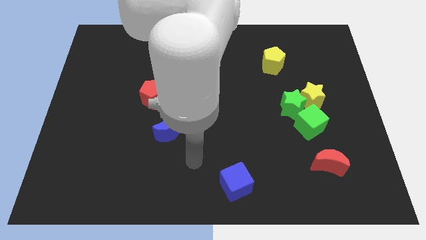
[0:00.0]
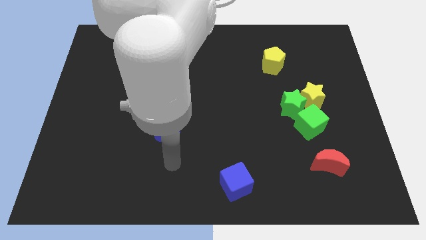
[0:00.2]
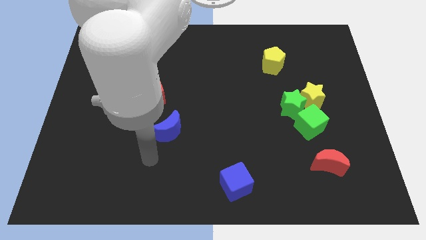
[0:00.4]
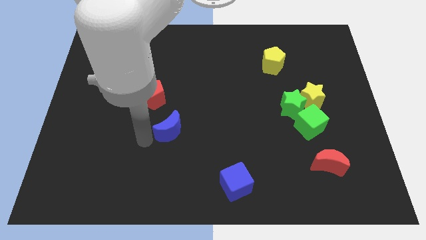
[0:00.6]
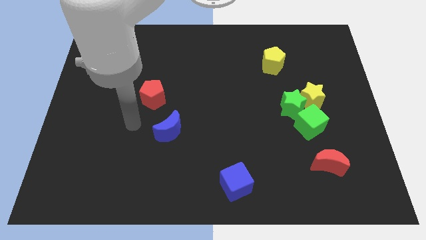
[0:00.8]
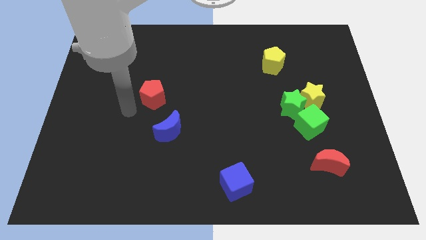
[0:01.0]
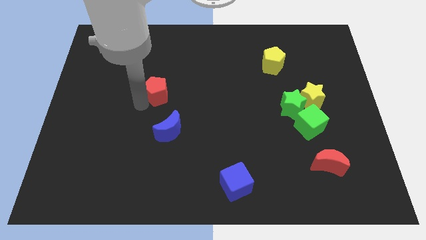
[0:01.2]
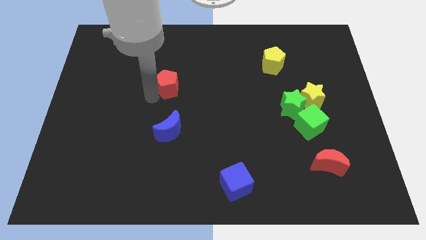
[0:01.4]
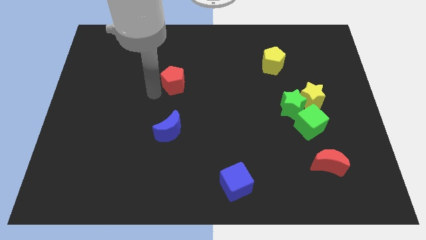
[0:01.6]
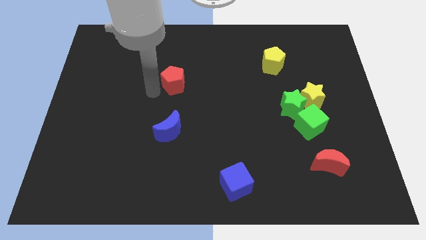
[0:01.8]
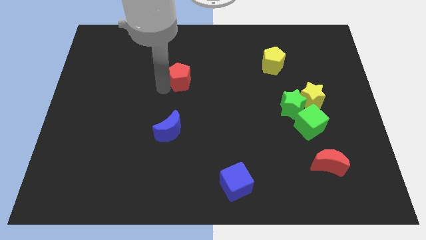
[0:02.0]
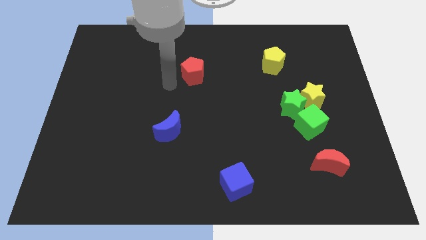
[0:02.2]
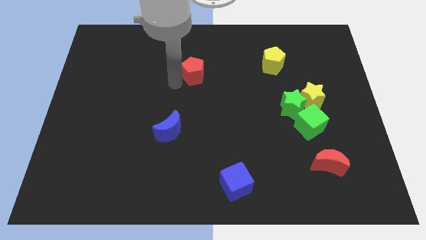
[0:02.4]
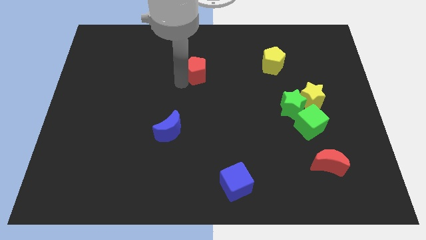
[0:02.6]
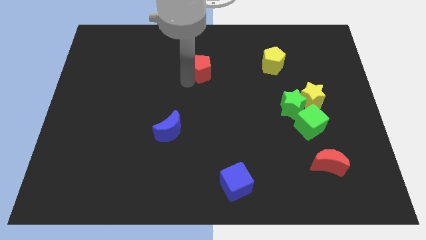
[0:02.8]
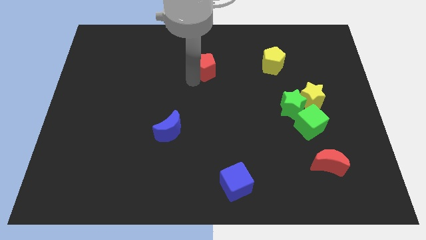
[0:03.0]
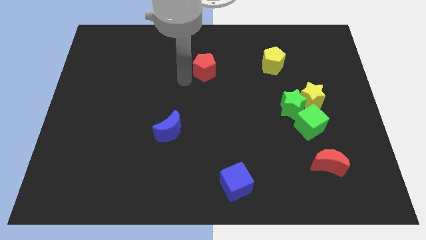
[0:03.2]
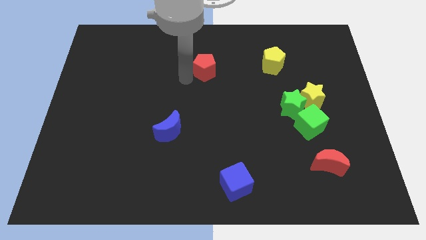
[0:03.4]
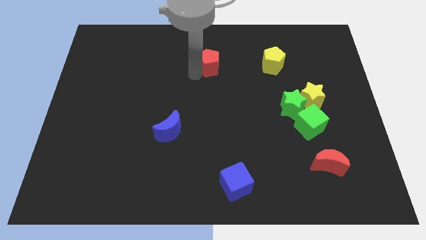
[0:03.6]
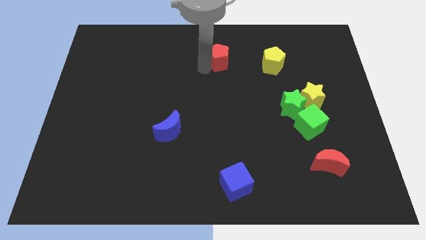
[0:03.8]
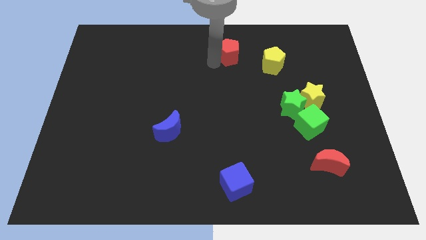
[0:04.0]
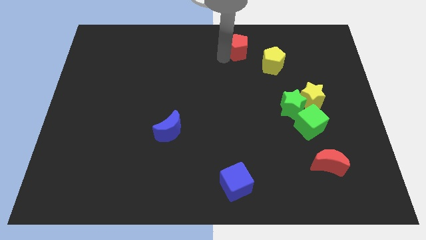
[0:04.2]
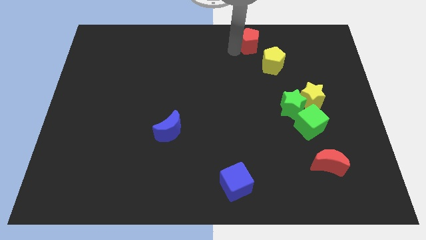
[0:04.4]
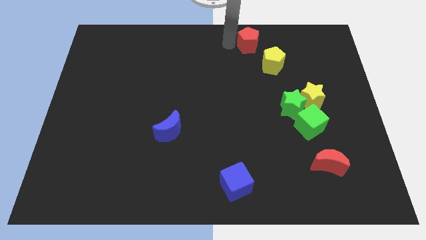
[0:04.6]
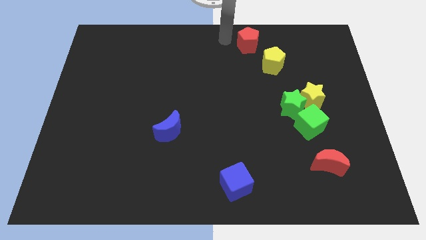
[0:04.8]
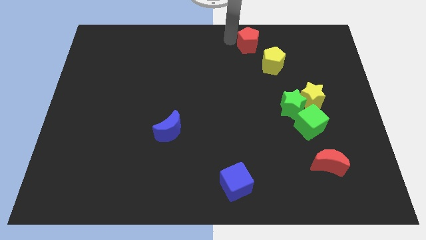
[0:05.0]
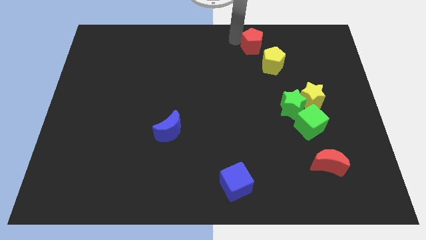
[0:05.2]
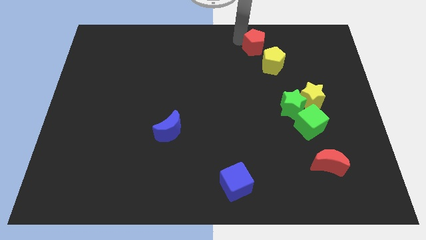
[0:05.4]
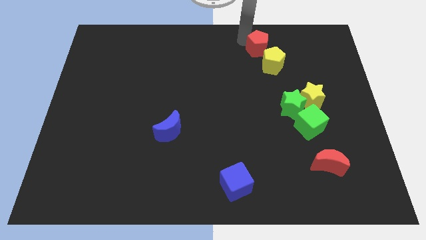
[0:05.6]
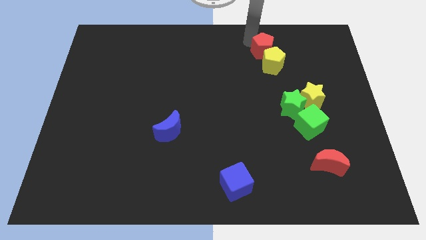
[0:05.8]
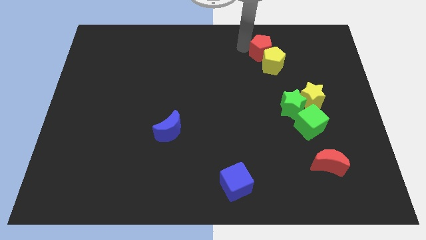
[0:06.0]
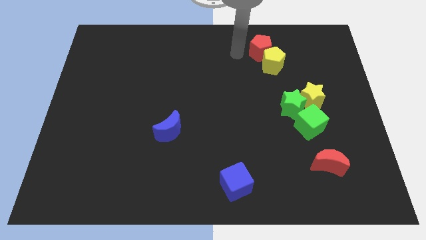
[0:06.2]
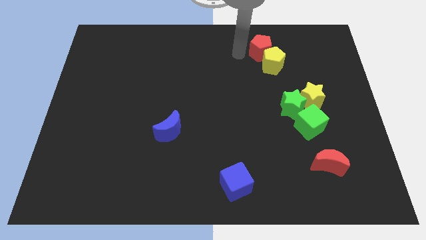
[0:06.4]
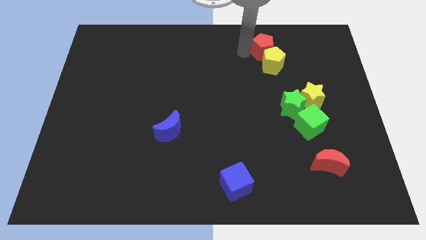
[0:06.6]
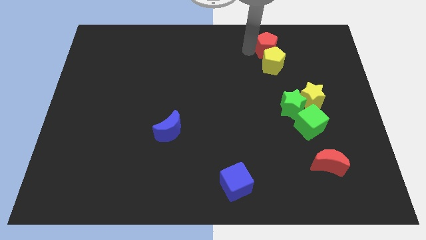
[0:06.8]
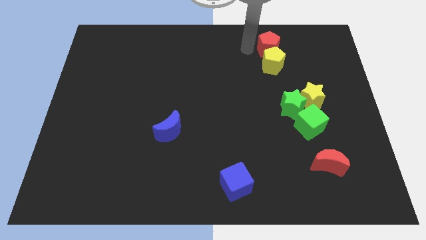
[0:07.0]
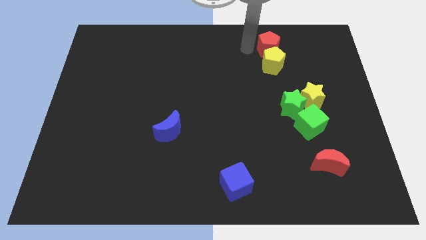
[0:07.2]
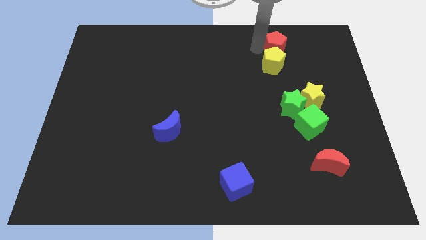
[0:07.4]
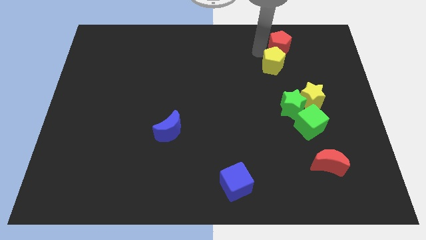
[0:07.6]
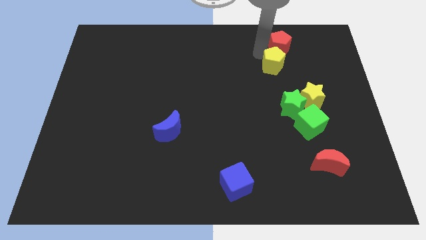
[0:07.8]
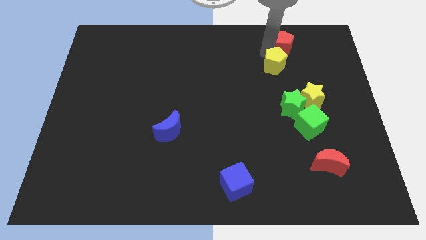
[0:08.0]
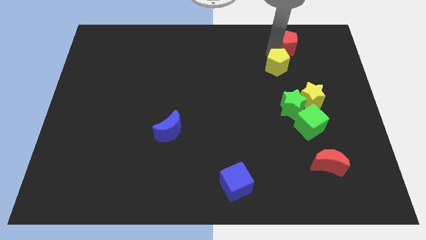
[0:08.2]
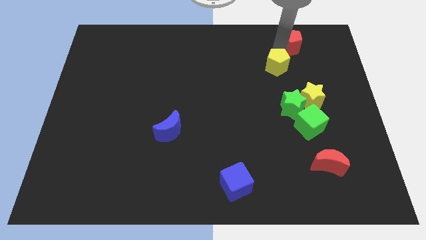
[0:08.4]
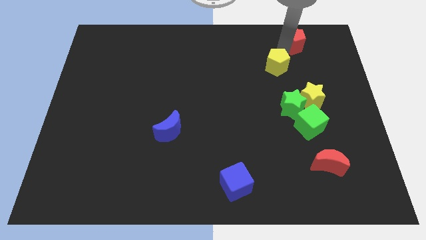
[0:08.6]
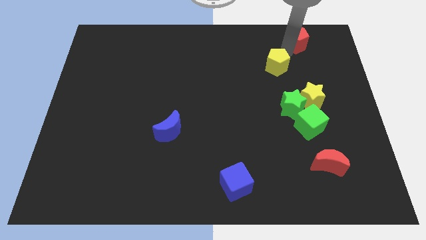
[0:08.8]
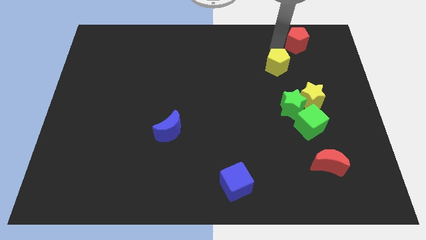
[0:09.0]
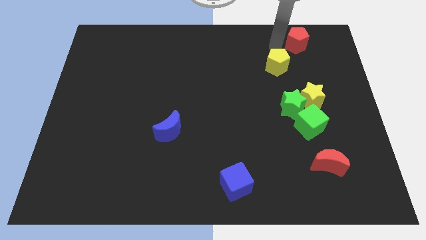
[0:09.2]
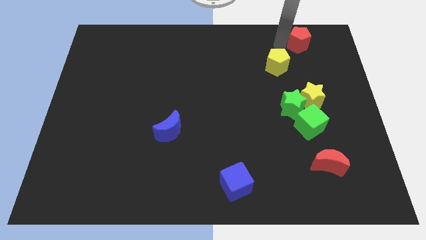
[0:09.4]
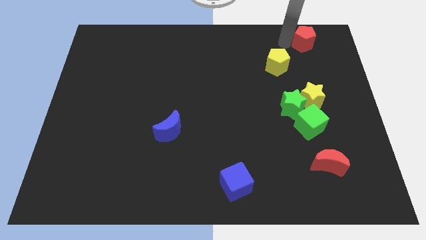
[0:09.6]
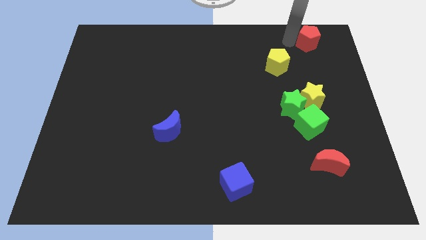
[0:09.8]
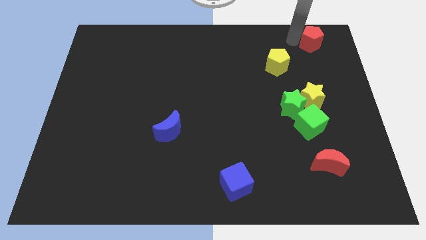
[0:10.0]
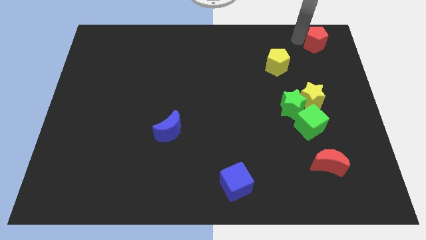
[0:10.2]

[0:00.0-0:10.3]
push the red pentagon to the top right of the board

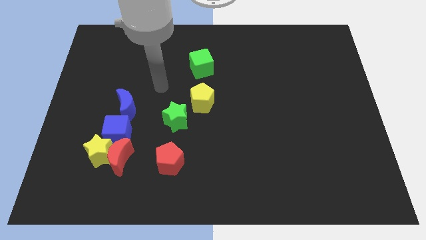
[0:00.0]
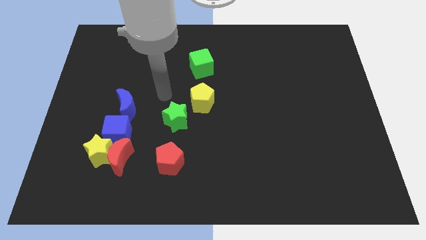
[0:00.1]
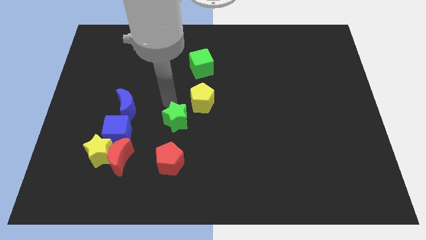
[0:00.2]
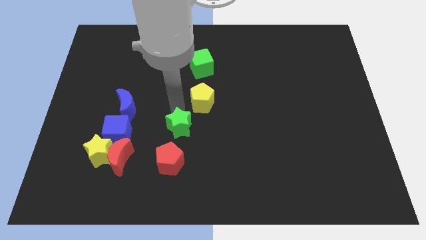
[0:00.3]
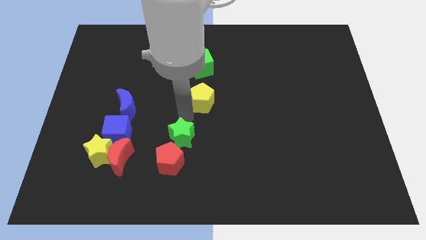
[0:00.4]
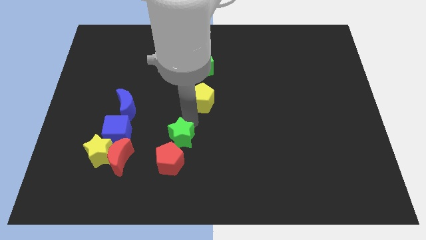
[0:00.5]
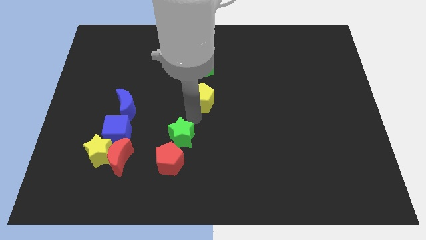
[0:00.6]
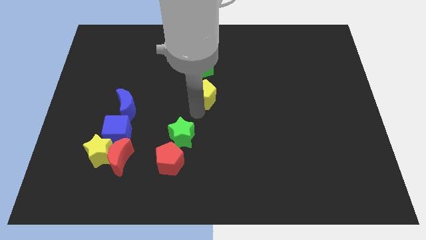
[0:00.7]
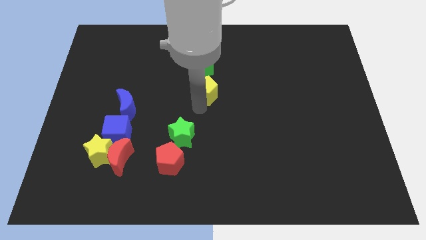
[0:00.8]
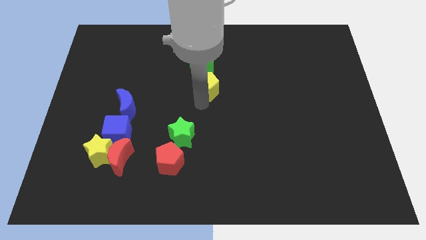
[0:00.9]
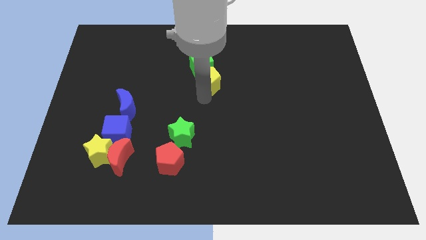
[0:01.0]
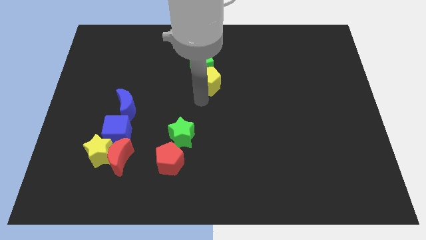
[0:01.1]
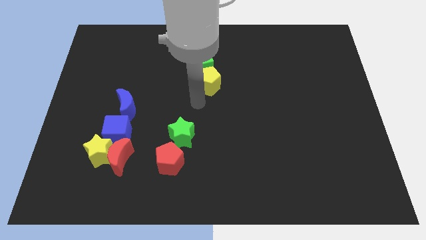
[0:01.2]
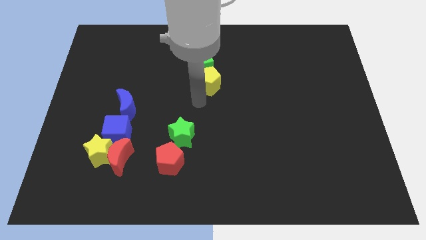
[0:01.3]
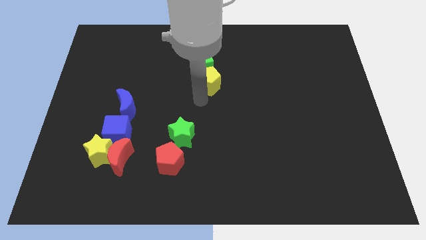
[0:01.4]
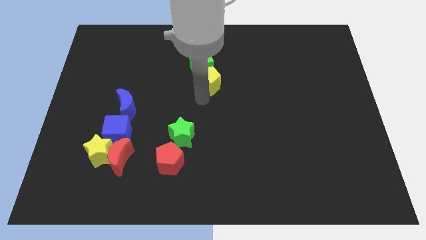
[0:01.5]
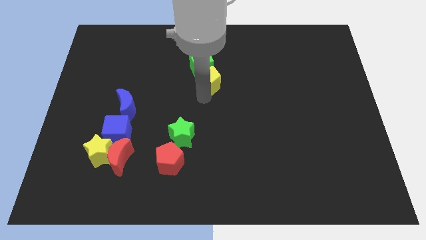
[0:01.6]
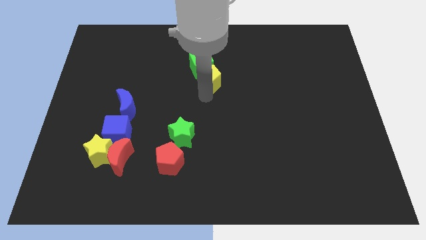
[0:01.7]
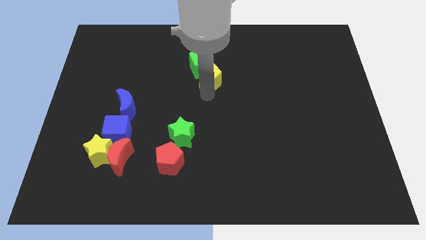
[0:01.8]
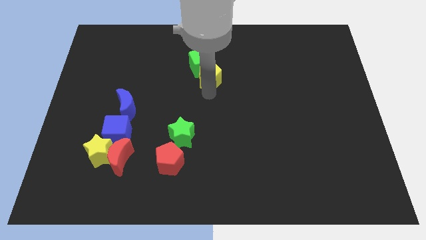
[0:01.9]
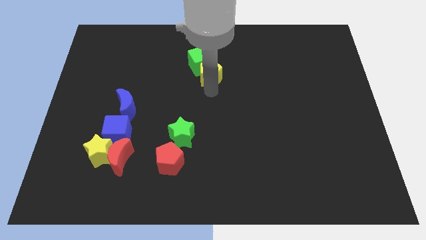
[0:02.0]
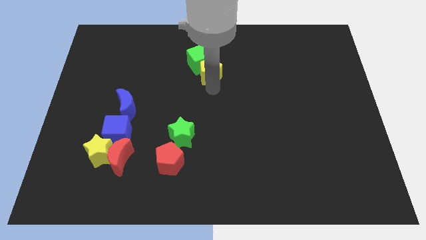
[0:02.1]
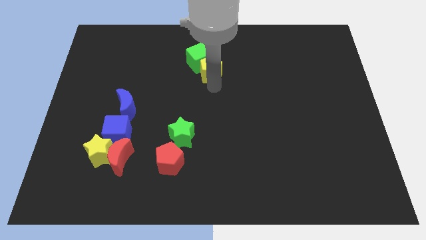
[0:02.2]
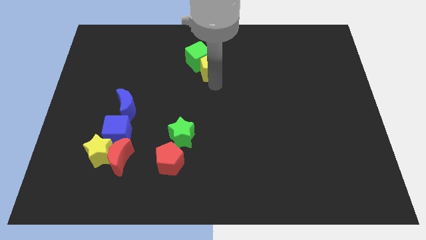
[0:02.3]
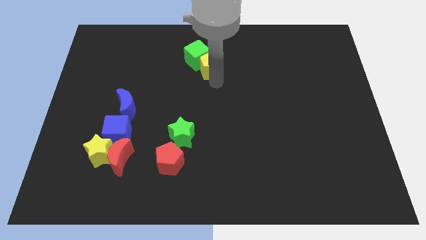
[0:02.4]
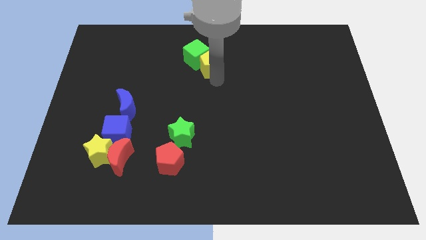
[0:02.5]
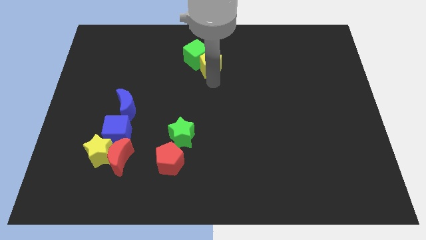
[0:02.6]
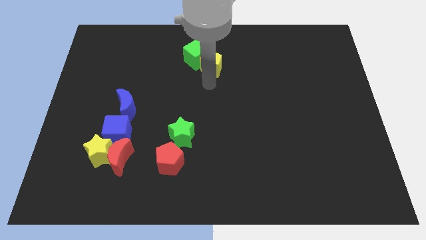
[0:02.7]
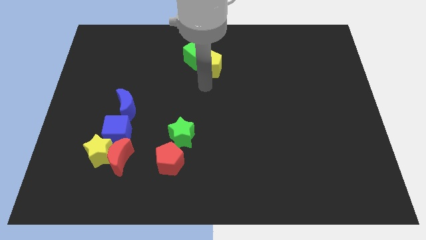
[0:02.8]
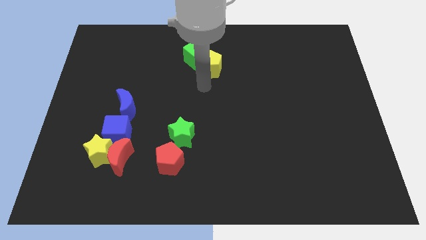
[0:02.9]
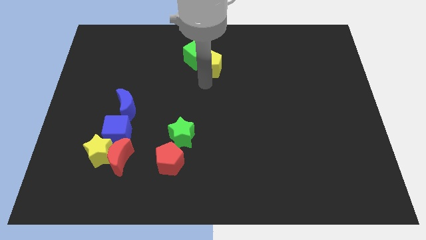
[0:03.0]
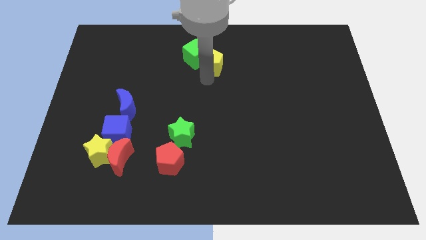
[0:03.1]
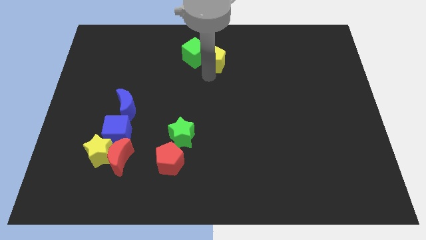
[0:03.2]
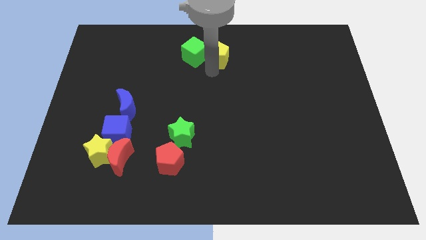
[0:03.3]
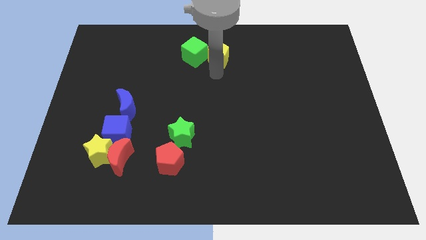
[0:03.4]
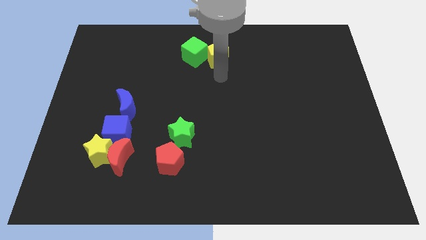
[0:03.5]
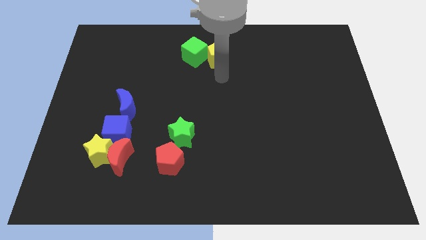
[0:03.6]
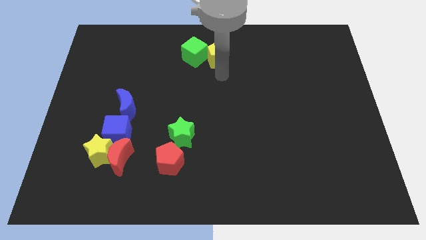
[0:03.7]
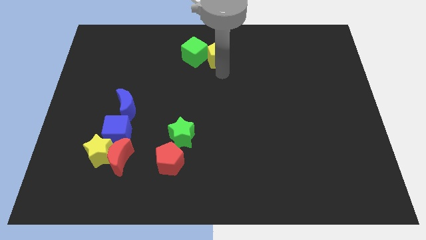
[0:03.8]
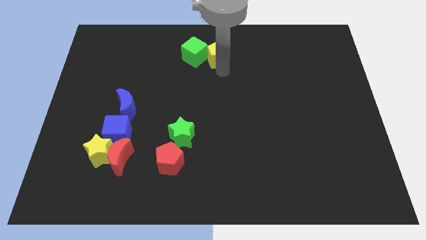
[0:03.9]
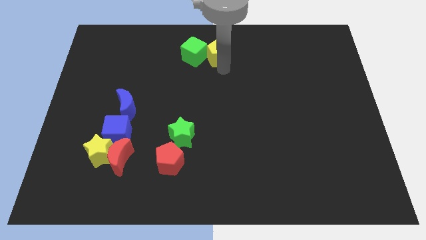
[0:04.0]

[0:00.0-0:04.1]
move the yellow pentagon to the top
